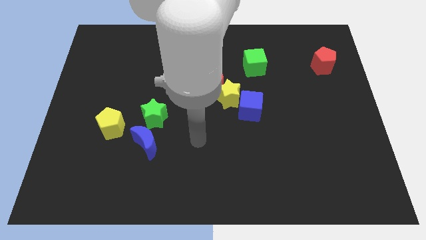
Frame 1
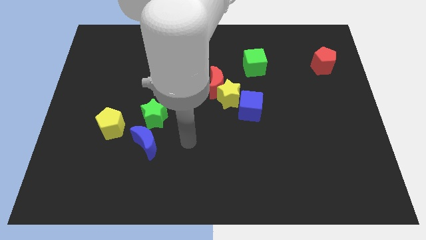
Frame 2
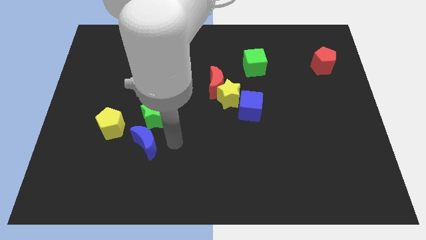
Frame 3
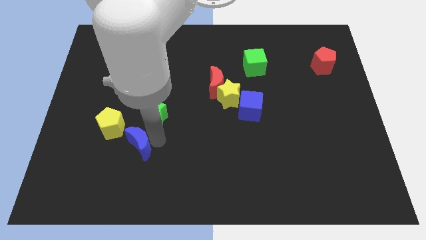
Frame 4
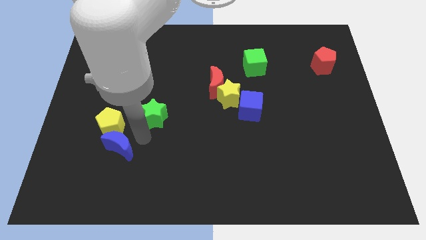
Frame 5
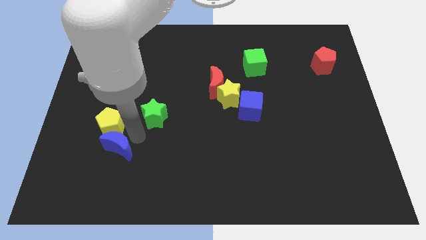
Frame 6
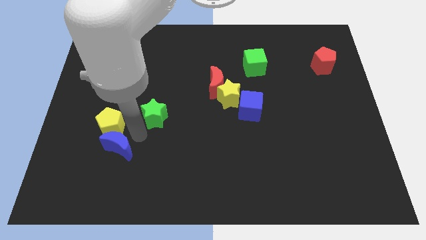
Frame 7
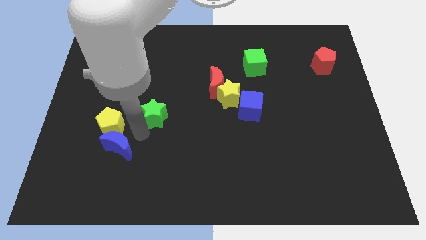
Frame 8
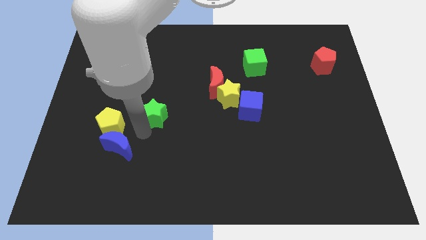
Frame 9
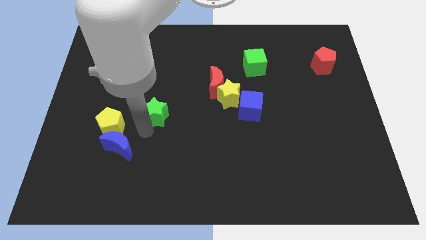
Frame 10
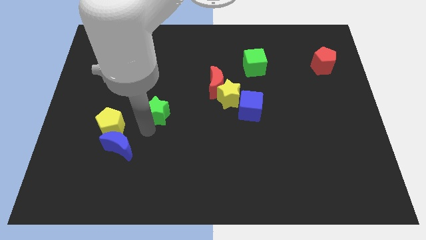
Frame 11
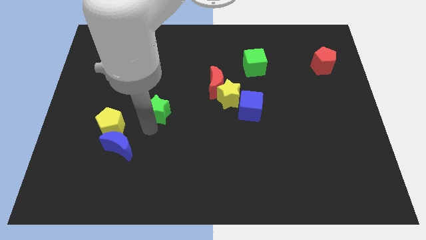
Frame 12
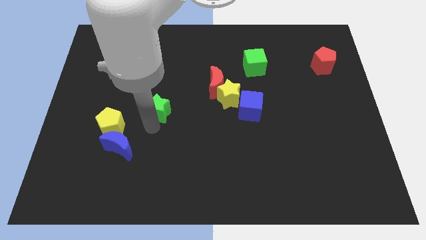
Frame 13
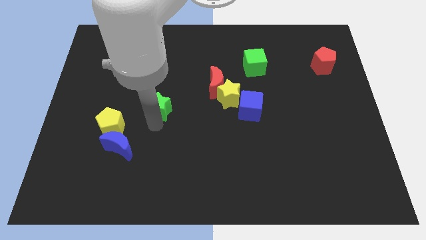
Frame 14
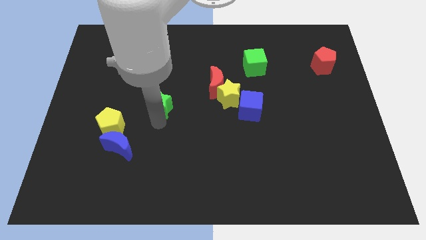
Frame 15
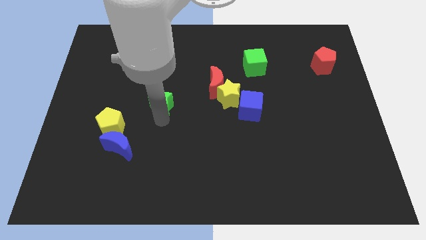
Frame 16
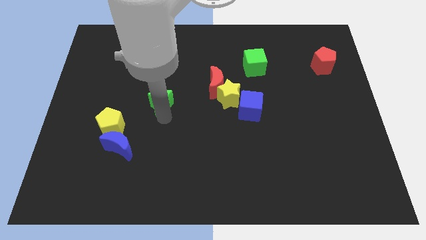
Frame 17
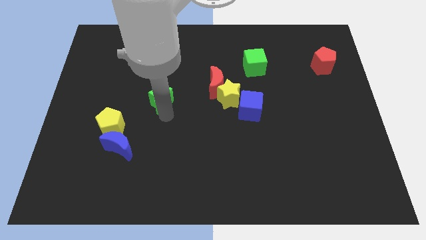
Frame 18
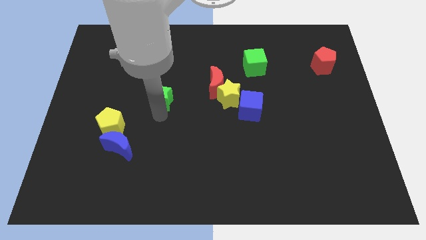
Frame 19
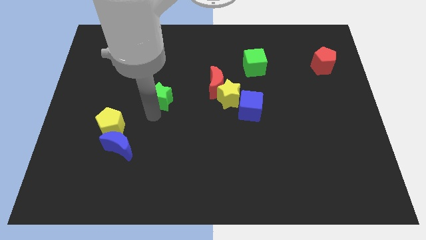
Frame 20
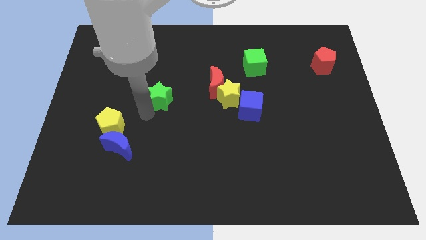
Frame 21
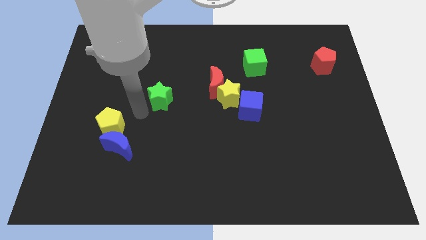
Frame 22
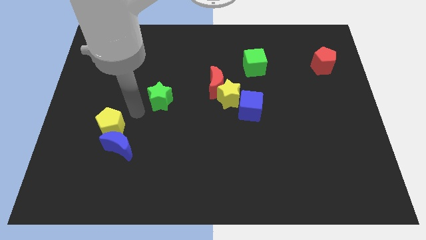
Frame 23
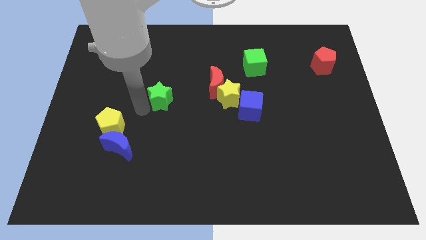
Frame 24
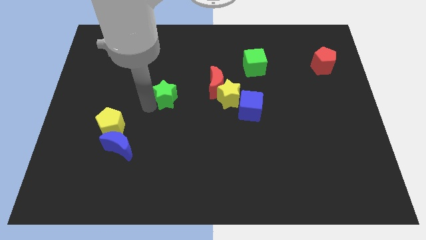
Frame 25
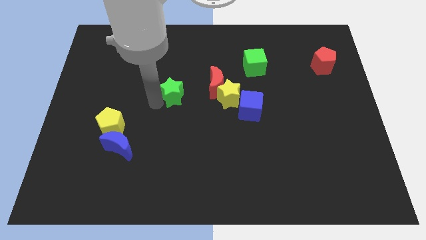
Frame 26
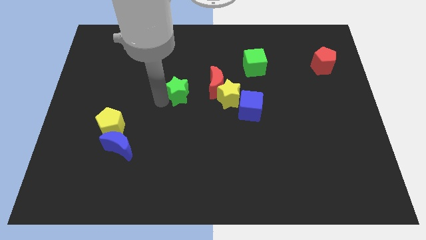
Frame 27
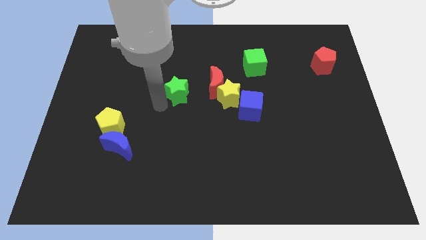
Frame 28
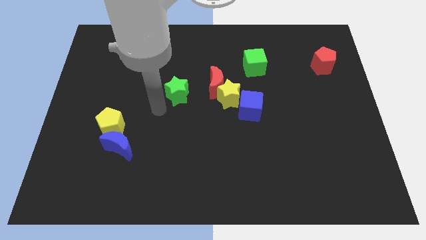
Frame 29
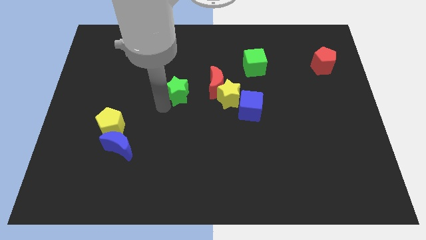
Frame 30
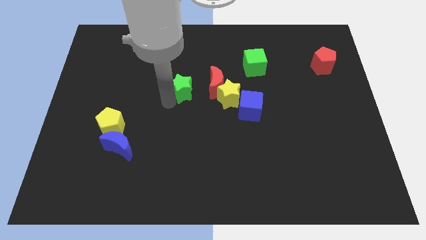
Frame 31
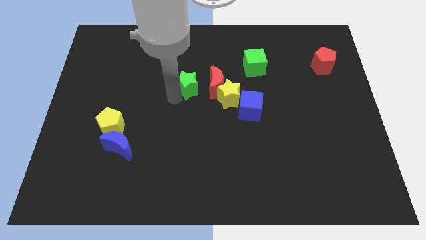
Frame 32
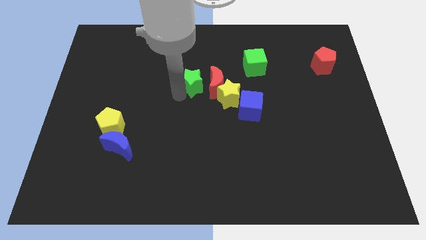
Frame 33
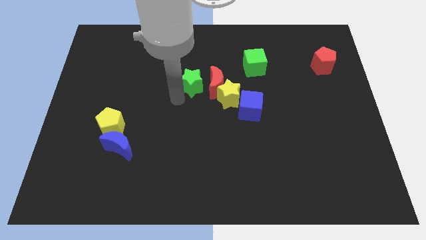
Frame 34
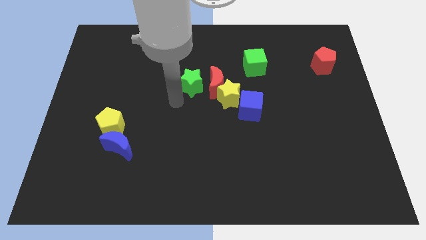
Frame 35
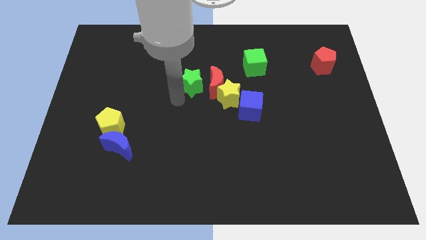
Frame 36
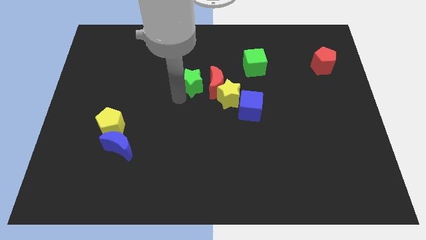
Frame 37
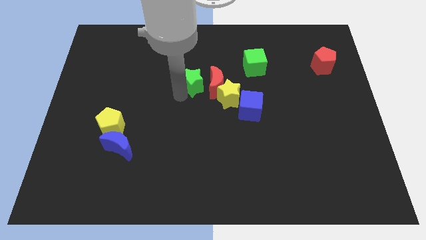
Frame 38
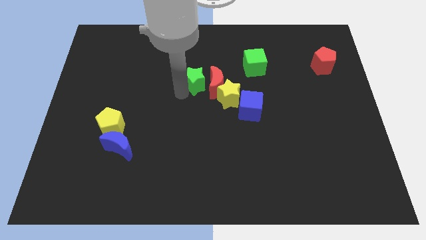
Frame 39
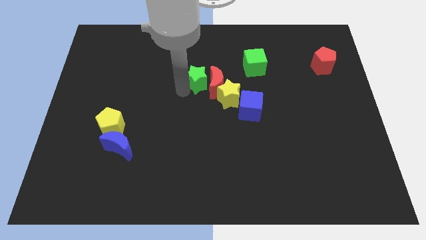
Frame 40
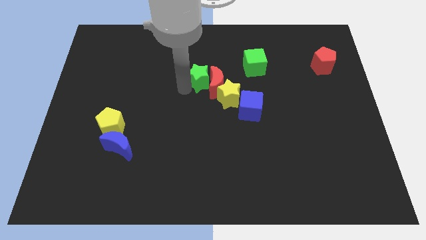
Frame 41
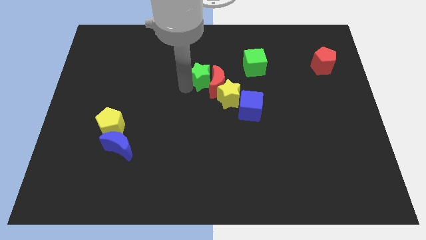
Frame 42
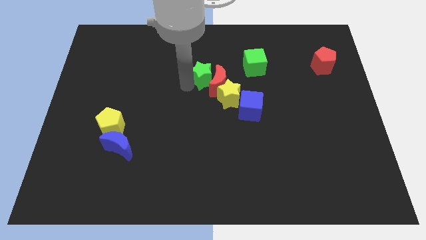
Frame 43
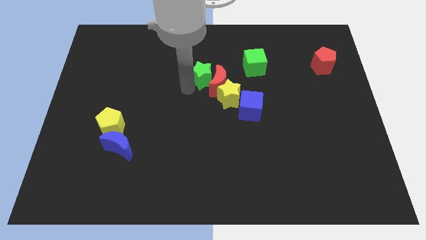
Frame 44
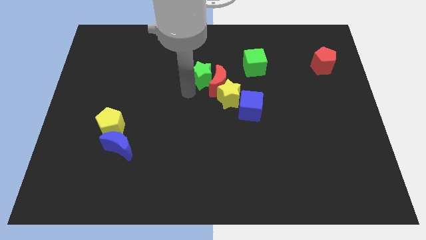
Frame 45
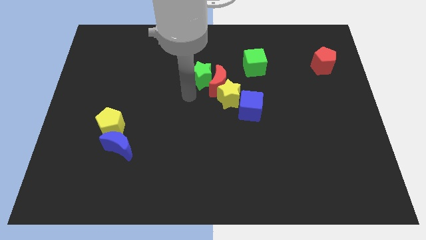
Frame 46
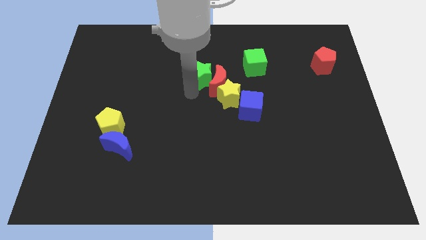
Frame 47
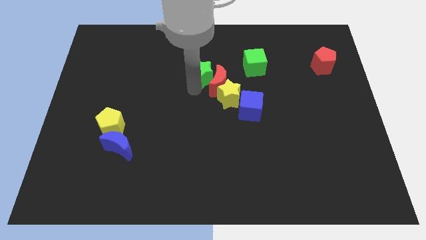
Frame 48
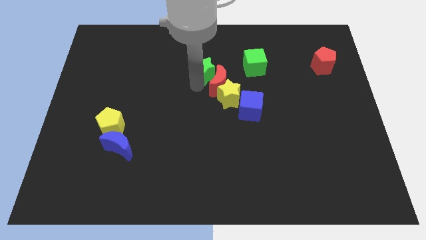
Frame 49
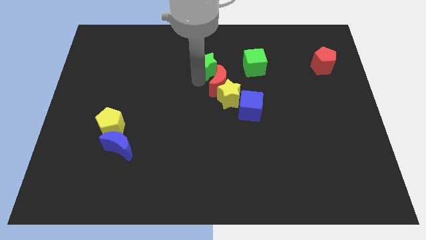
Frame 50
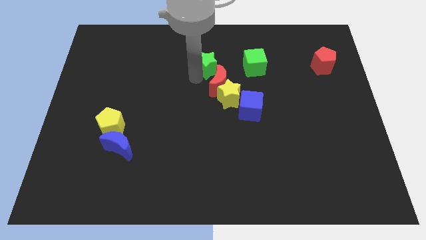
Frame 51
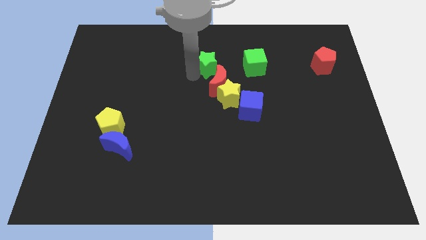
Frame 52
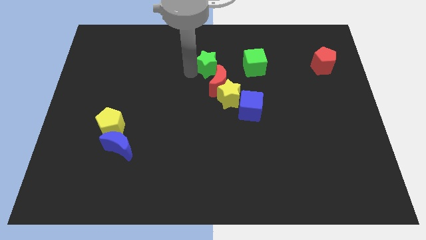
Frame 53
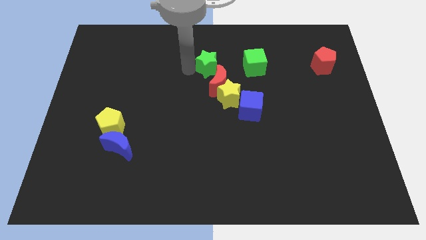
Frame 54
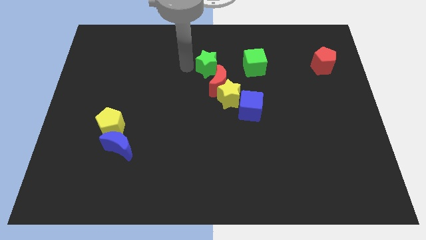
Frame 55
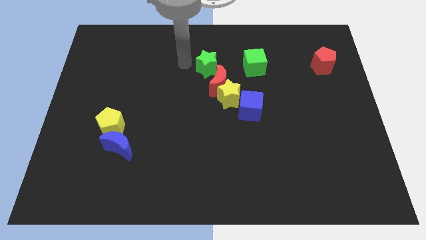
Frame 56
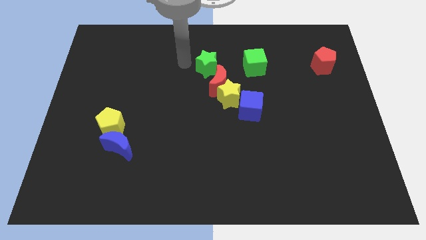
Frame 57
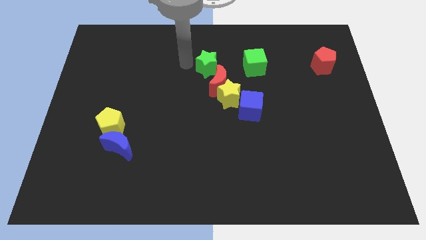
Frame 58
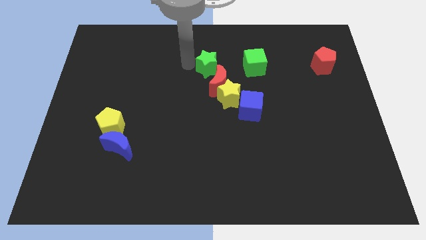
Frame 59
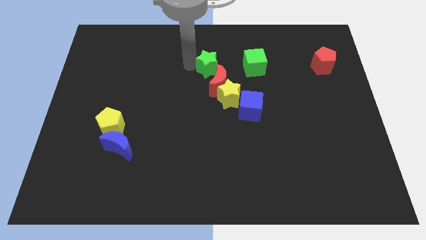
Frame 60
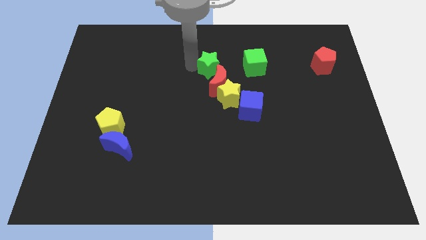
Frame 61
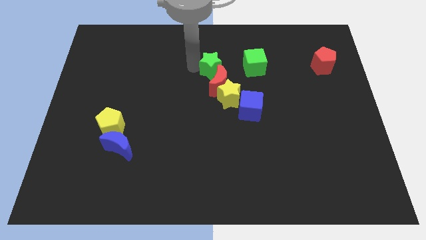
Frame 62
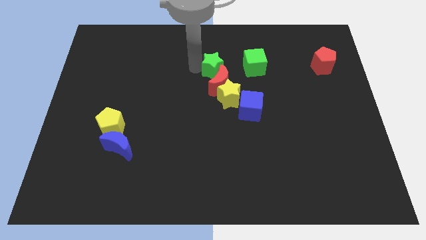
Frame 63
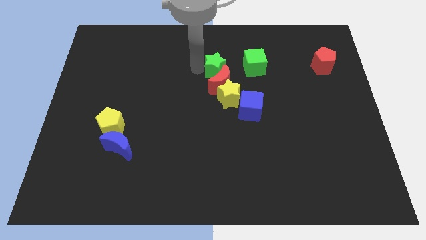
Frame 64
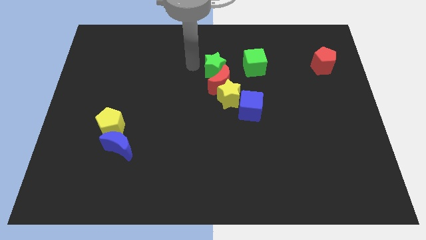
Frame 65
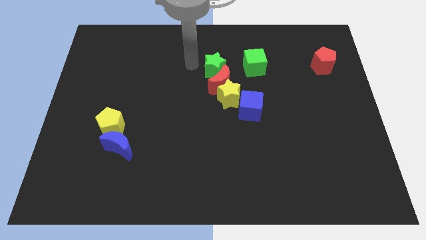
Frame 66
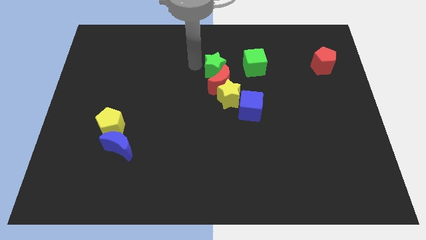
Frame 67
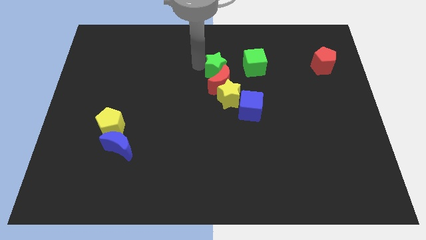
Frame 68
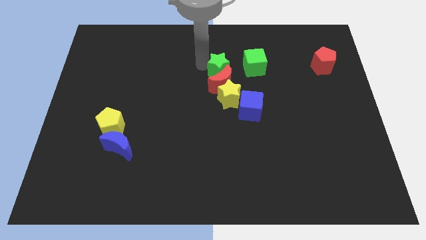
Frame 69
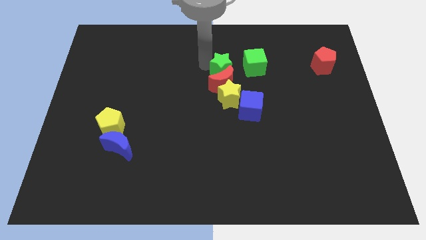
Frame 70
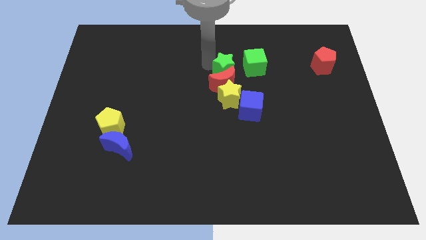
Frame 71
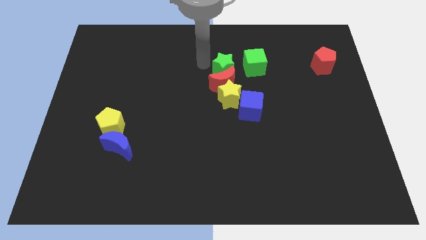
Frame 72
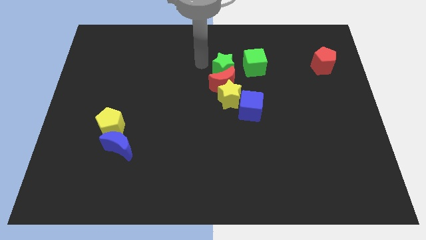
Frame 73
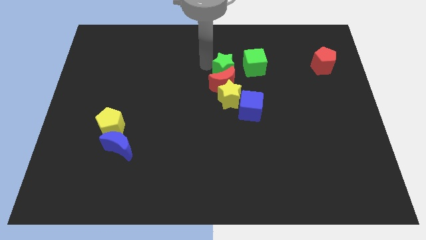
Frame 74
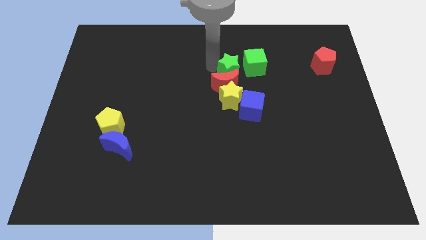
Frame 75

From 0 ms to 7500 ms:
put the green star above the blue cube
